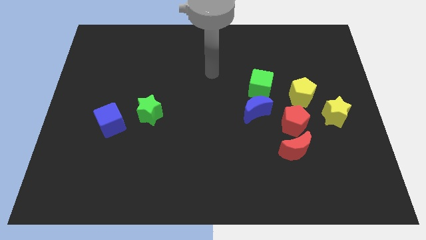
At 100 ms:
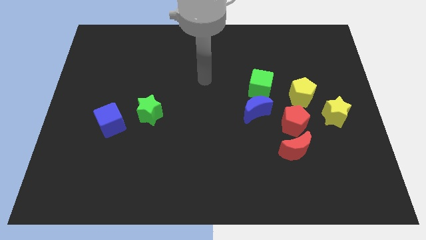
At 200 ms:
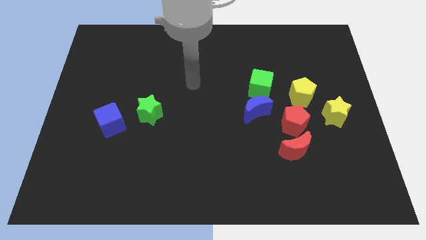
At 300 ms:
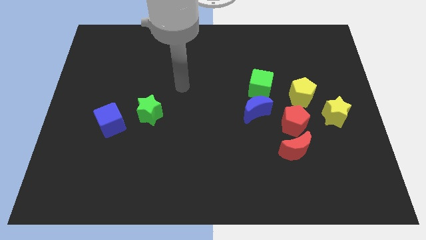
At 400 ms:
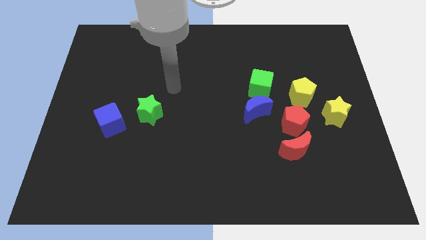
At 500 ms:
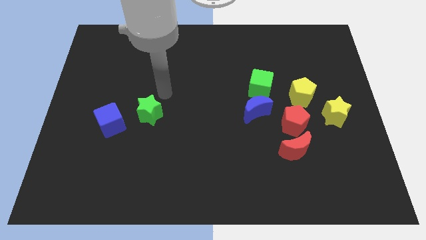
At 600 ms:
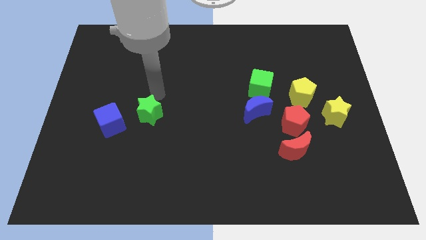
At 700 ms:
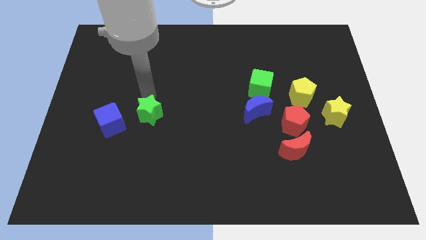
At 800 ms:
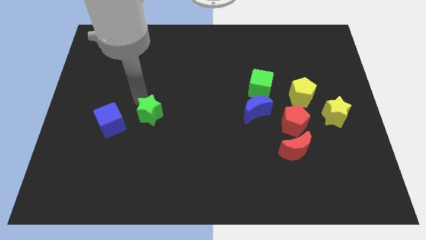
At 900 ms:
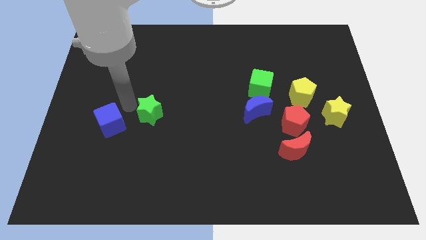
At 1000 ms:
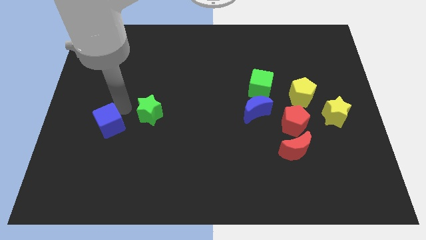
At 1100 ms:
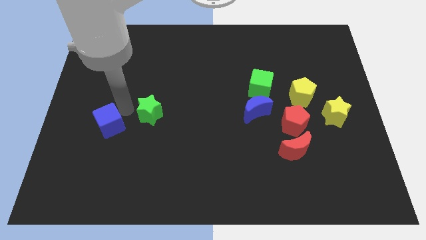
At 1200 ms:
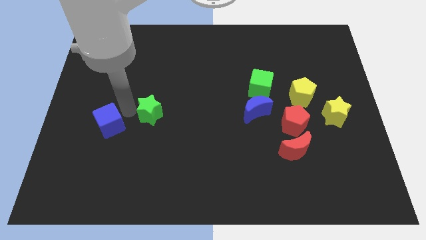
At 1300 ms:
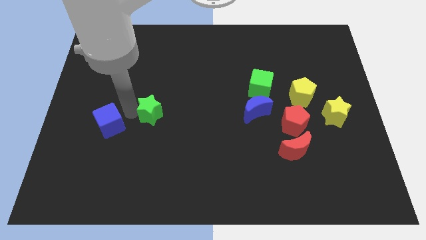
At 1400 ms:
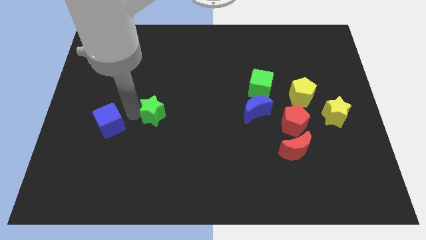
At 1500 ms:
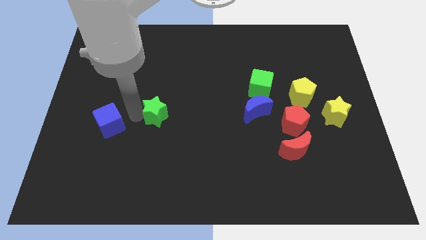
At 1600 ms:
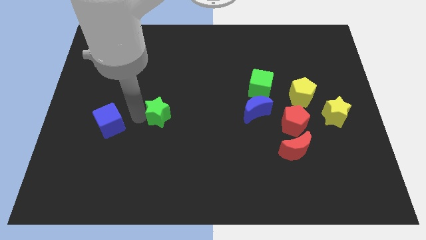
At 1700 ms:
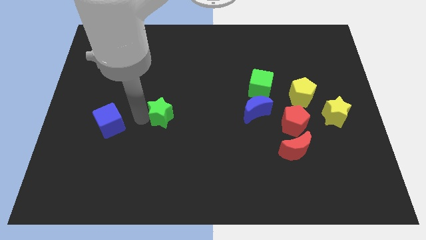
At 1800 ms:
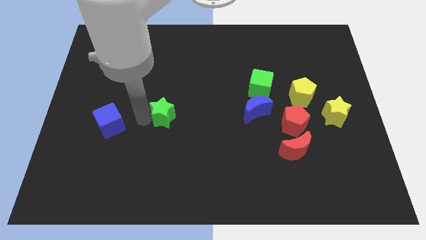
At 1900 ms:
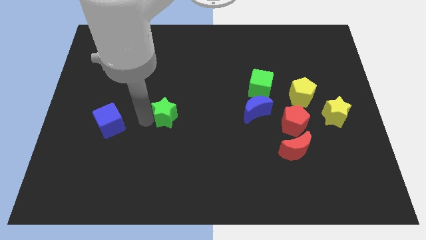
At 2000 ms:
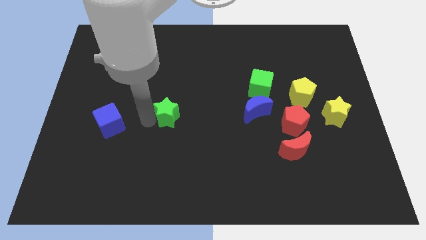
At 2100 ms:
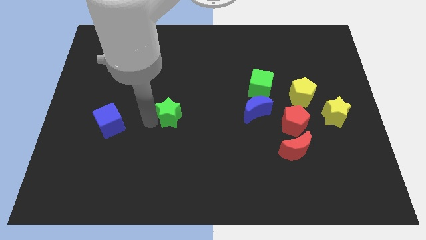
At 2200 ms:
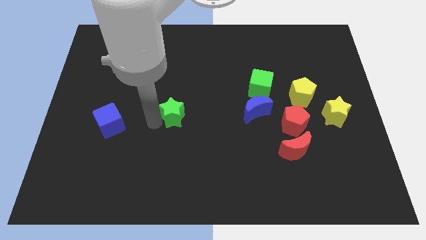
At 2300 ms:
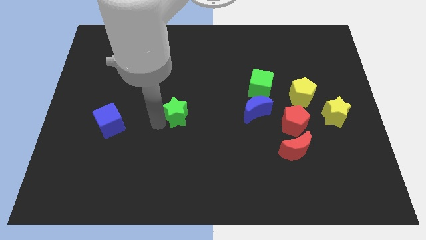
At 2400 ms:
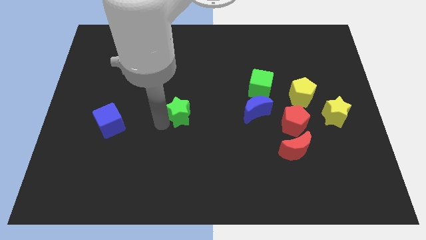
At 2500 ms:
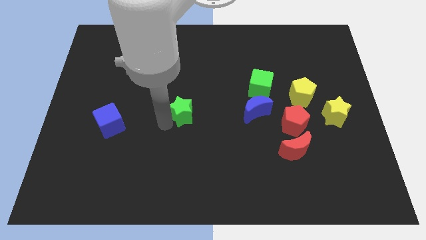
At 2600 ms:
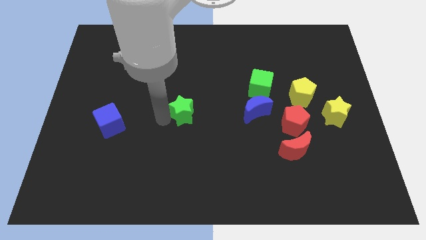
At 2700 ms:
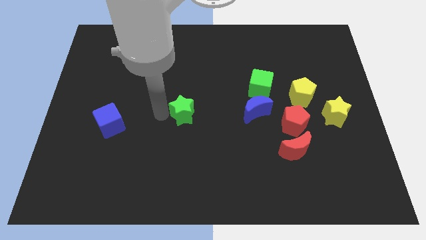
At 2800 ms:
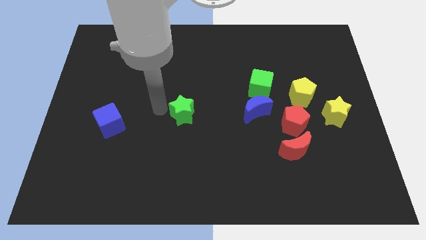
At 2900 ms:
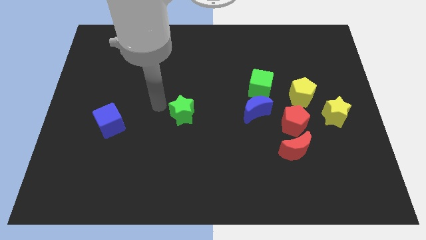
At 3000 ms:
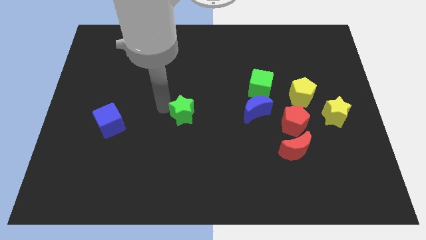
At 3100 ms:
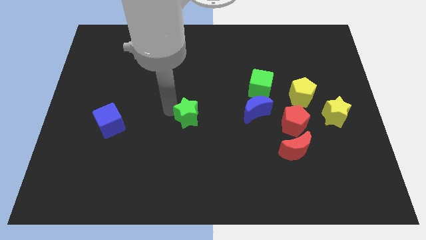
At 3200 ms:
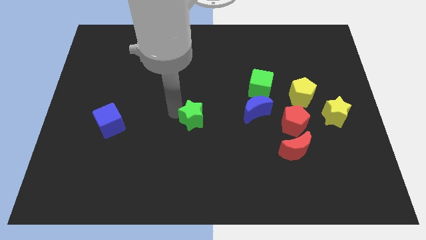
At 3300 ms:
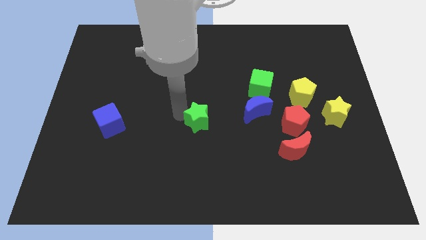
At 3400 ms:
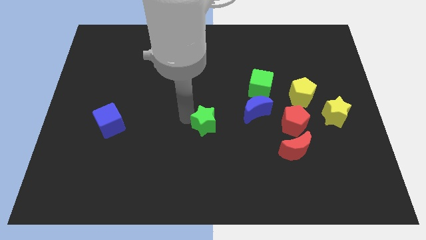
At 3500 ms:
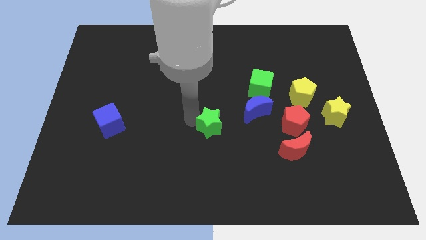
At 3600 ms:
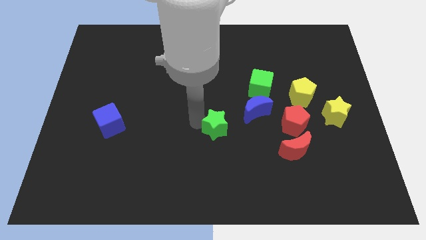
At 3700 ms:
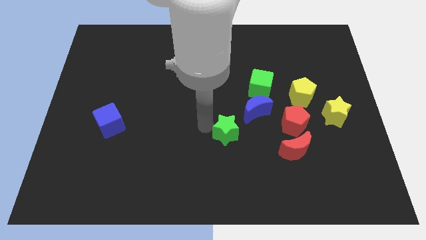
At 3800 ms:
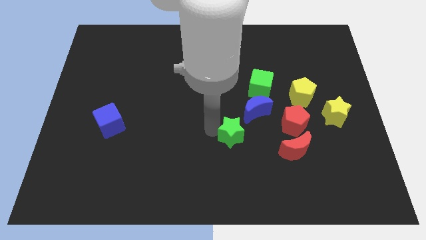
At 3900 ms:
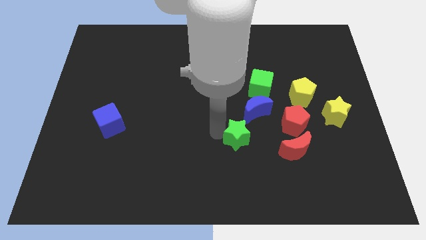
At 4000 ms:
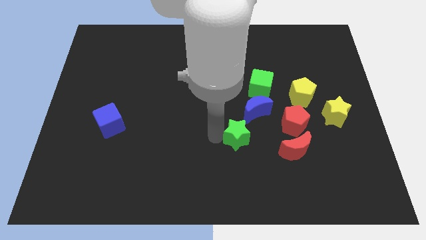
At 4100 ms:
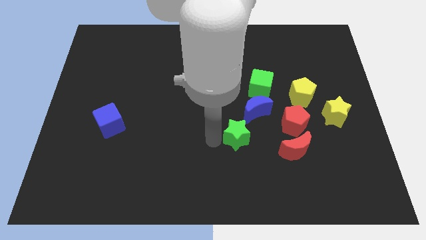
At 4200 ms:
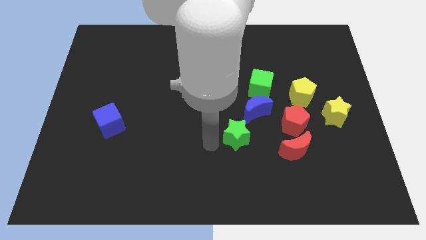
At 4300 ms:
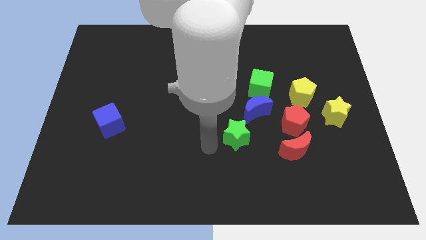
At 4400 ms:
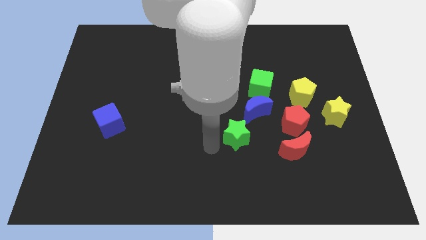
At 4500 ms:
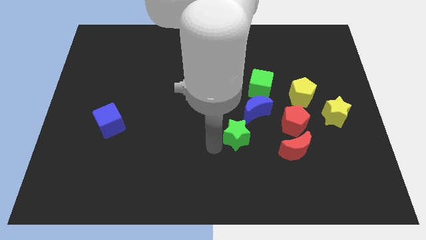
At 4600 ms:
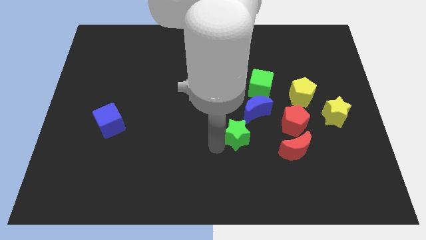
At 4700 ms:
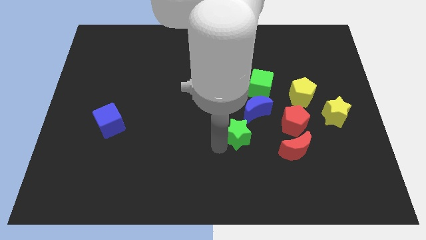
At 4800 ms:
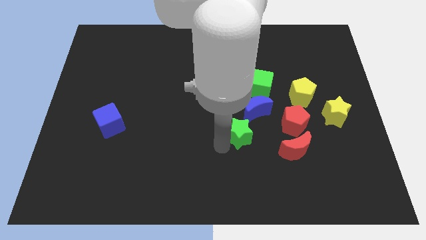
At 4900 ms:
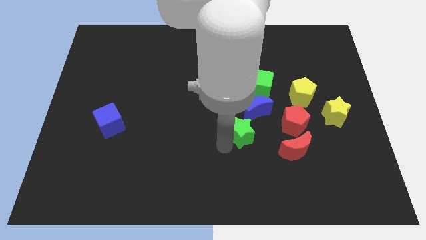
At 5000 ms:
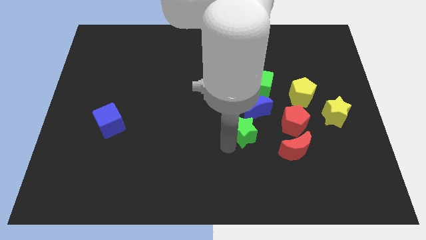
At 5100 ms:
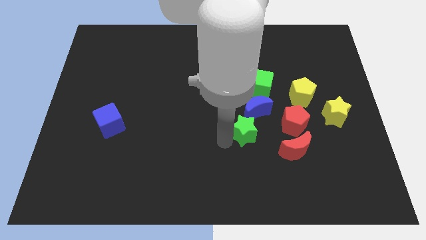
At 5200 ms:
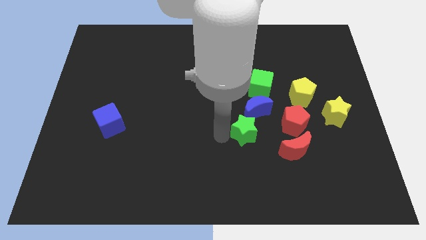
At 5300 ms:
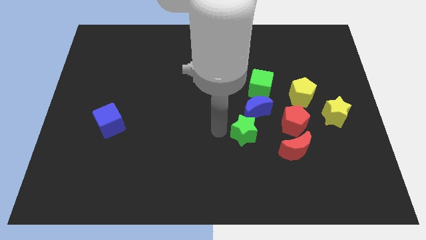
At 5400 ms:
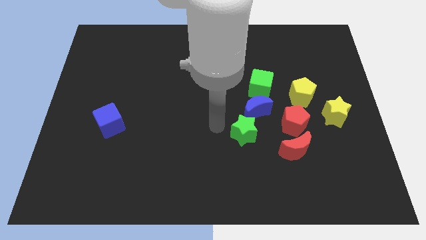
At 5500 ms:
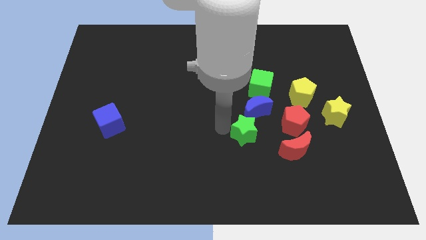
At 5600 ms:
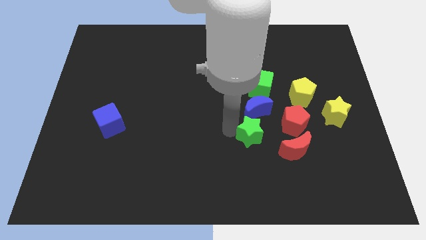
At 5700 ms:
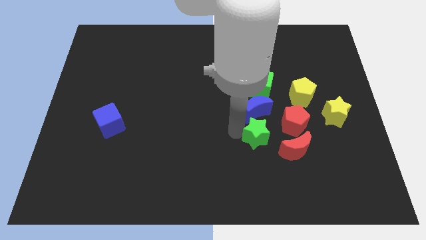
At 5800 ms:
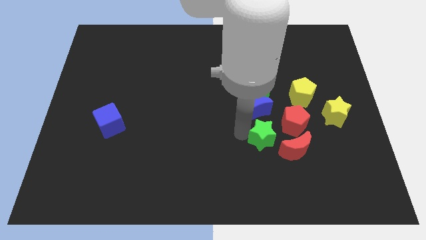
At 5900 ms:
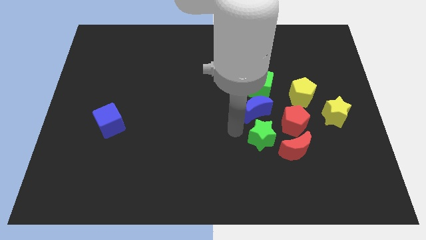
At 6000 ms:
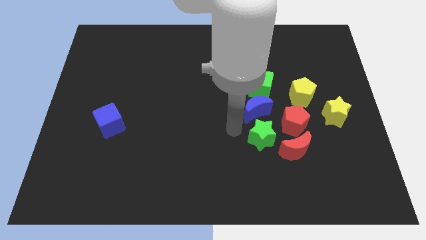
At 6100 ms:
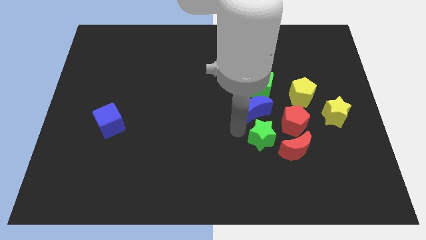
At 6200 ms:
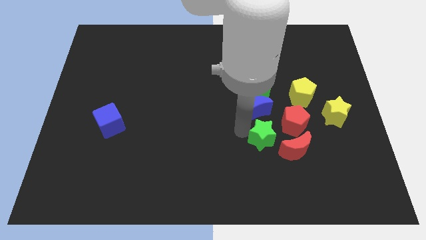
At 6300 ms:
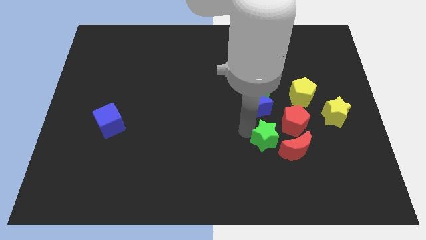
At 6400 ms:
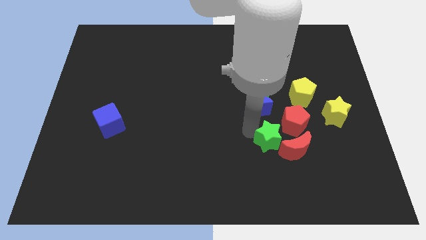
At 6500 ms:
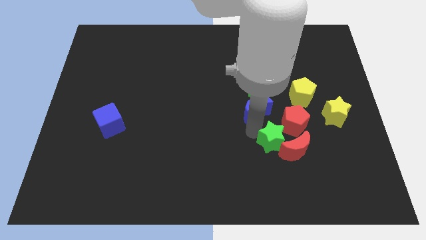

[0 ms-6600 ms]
push the green star to the red moon
